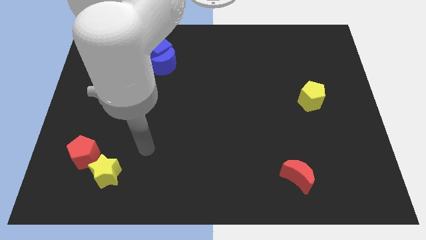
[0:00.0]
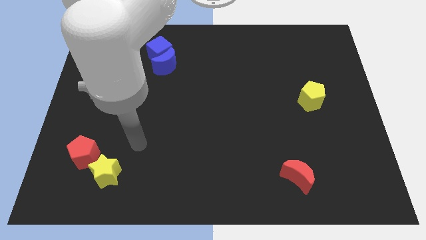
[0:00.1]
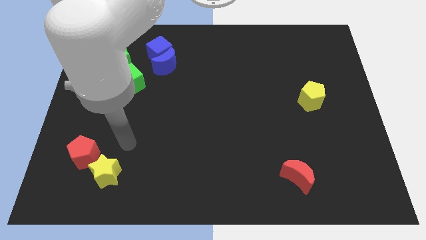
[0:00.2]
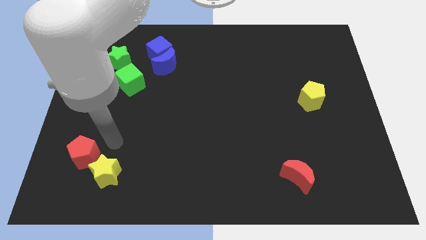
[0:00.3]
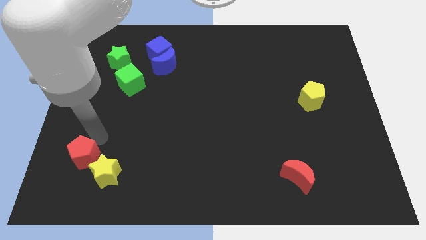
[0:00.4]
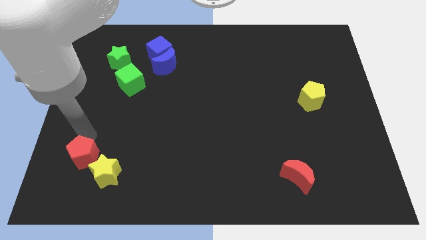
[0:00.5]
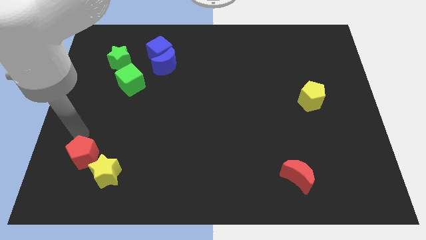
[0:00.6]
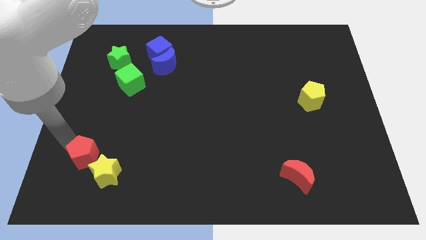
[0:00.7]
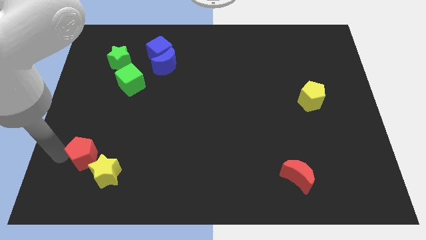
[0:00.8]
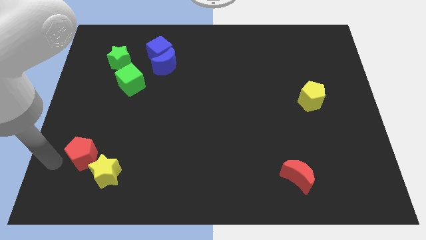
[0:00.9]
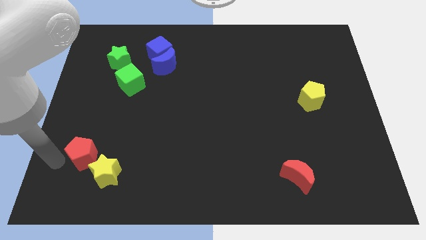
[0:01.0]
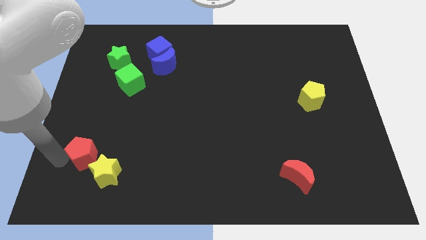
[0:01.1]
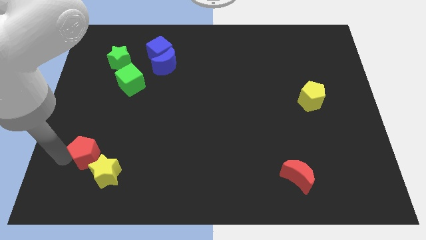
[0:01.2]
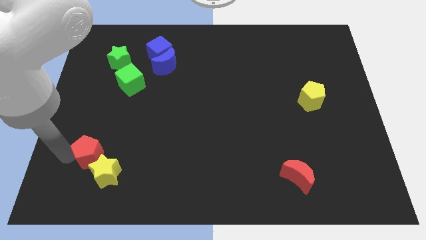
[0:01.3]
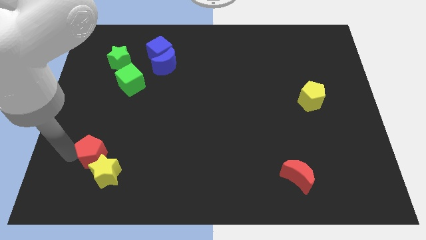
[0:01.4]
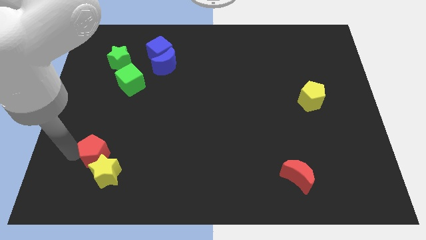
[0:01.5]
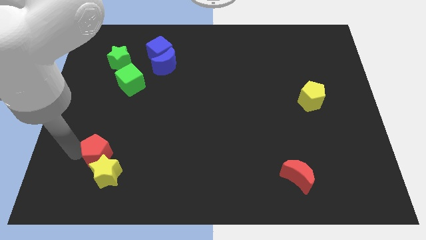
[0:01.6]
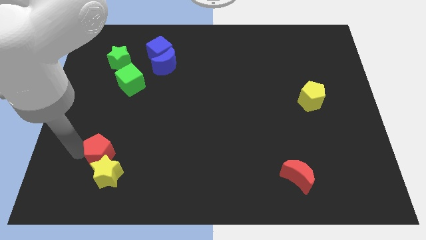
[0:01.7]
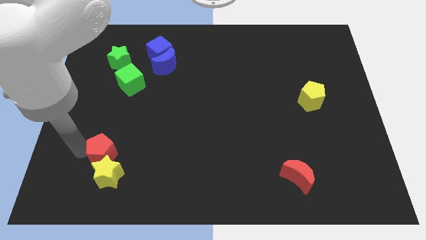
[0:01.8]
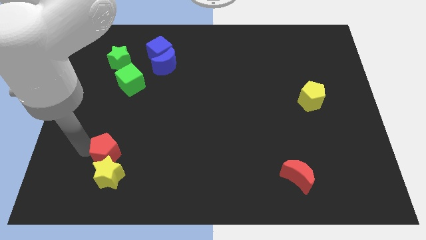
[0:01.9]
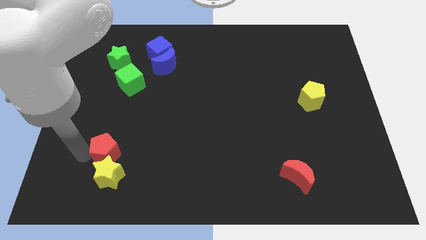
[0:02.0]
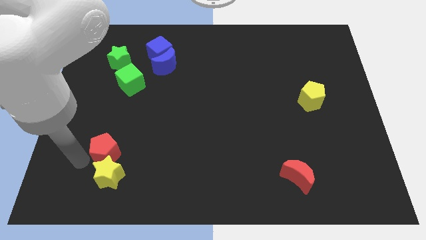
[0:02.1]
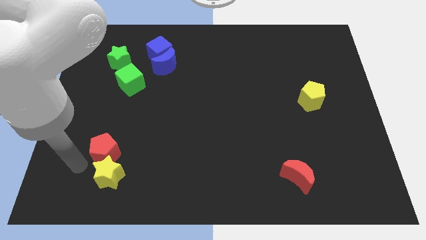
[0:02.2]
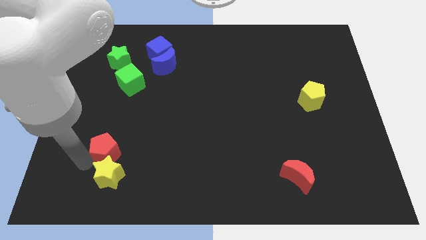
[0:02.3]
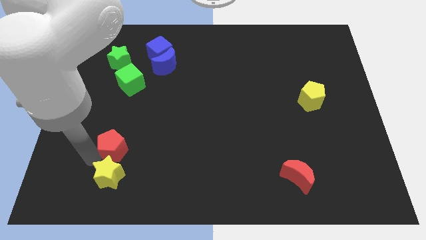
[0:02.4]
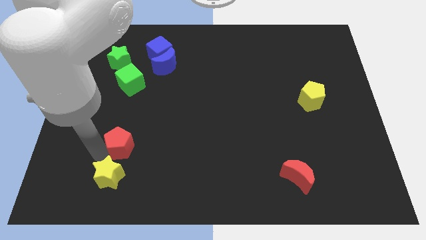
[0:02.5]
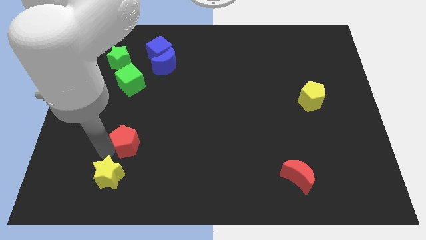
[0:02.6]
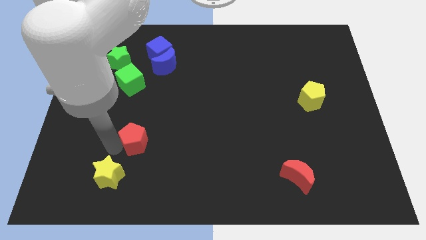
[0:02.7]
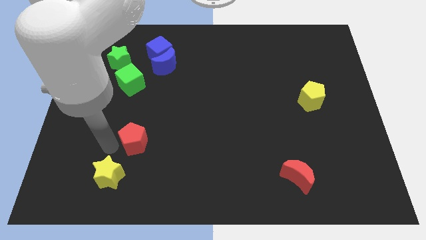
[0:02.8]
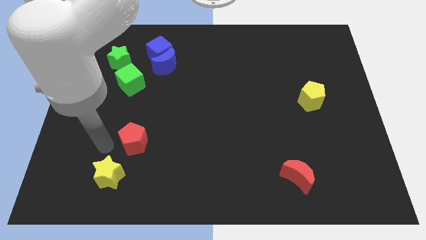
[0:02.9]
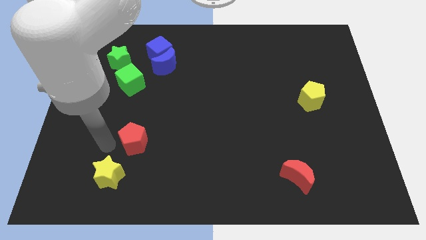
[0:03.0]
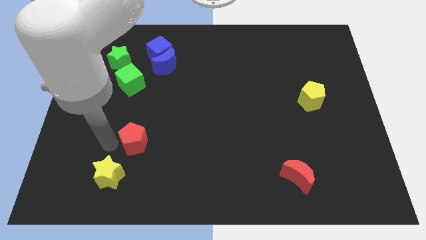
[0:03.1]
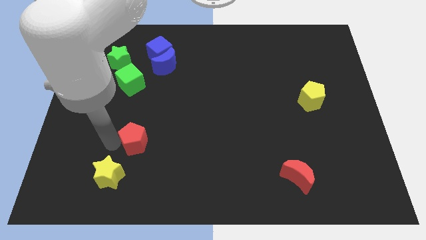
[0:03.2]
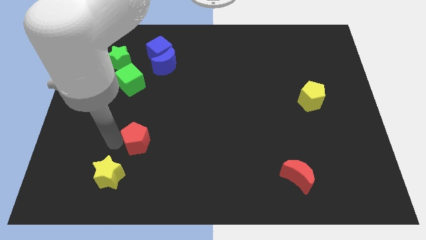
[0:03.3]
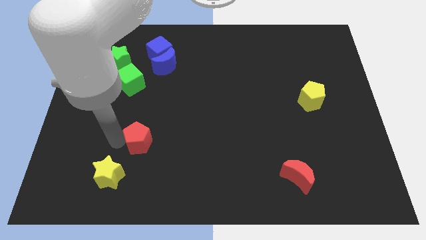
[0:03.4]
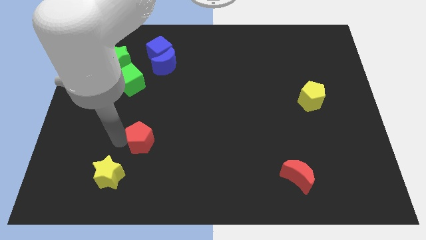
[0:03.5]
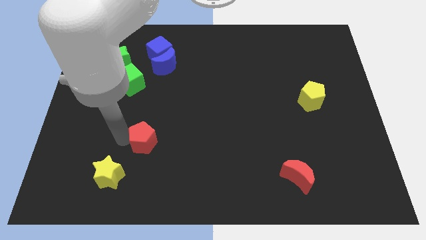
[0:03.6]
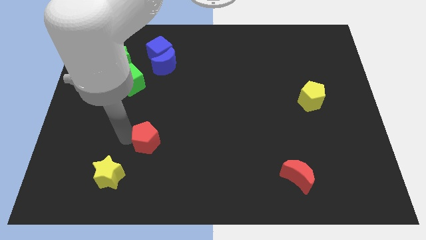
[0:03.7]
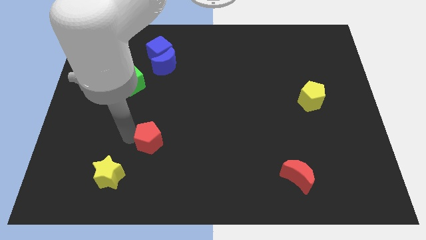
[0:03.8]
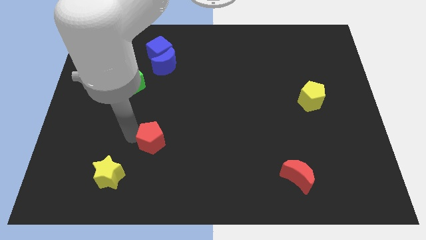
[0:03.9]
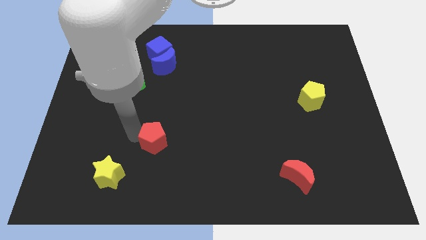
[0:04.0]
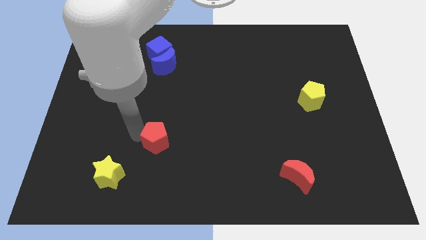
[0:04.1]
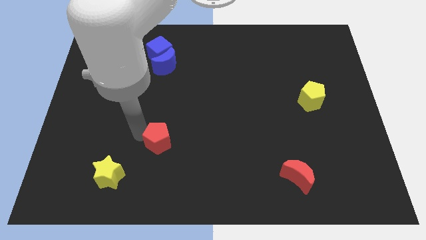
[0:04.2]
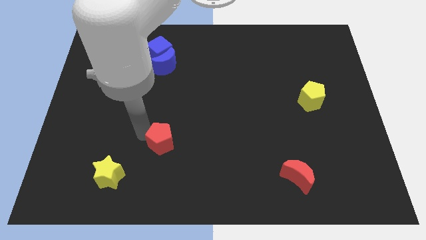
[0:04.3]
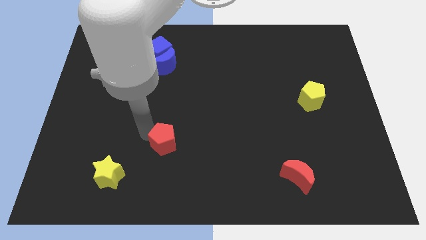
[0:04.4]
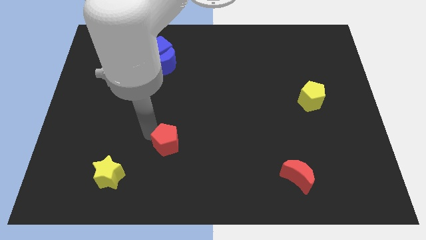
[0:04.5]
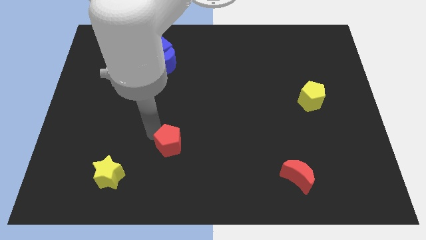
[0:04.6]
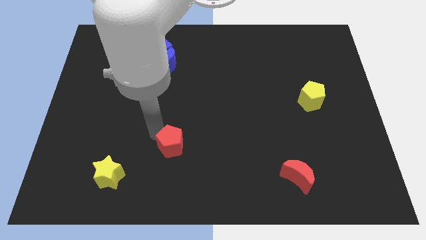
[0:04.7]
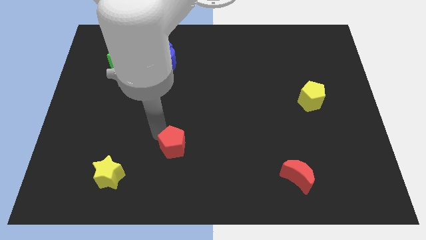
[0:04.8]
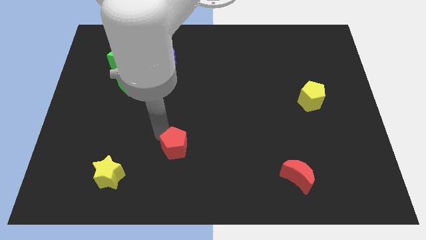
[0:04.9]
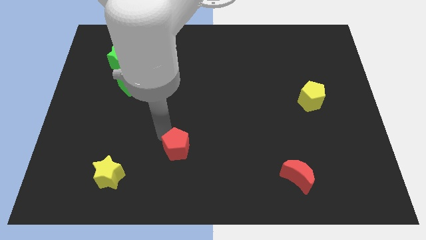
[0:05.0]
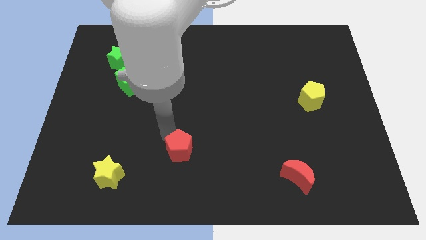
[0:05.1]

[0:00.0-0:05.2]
move the red pentagon to the right

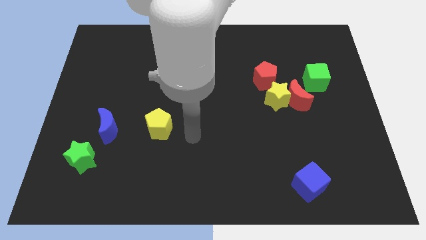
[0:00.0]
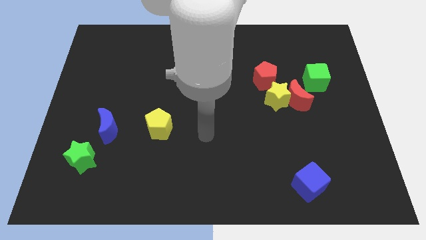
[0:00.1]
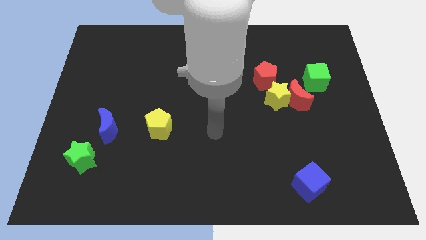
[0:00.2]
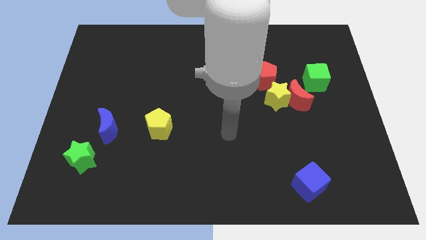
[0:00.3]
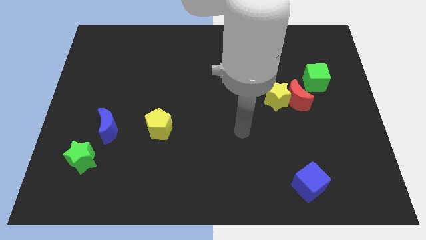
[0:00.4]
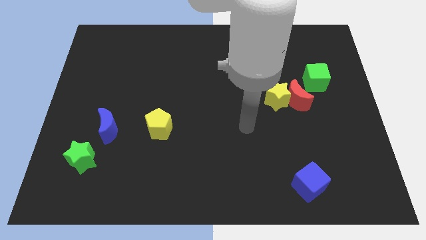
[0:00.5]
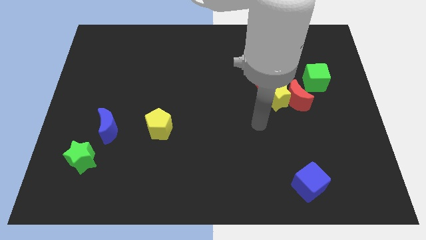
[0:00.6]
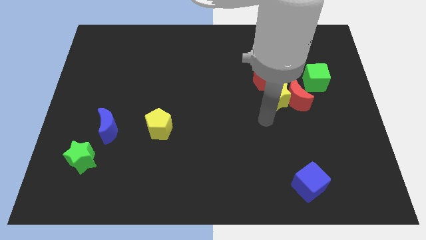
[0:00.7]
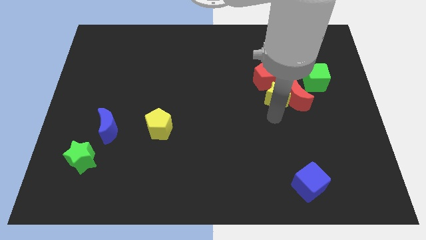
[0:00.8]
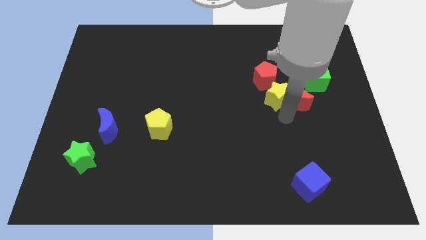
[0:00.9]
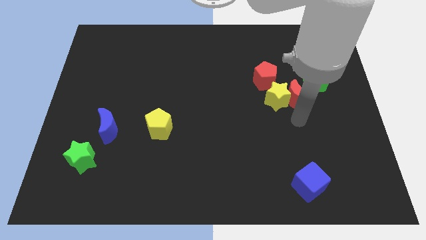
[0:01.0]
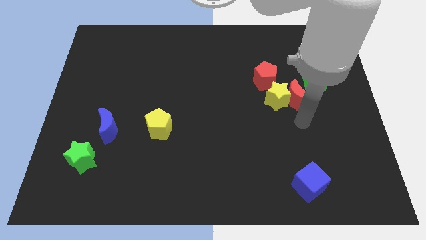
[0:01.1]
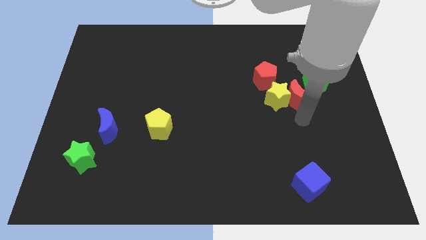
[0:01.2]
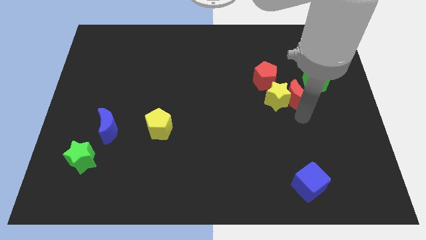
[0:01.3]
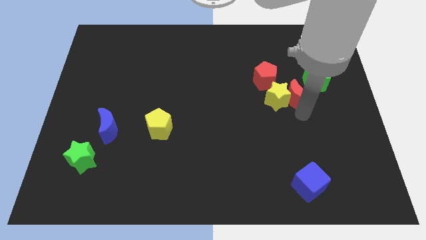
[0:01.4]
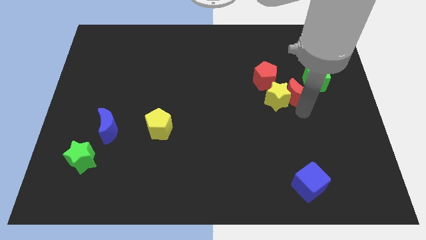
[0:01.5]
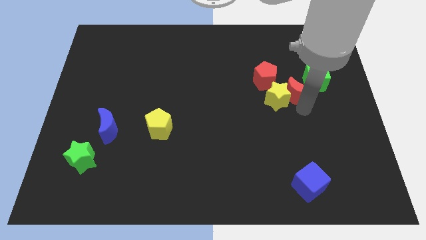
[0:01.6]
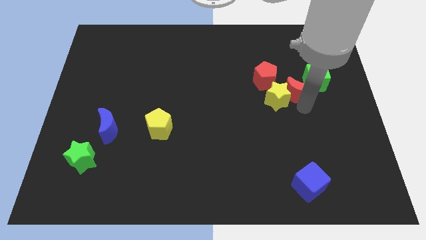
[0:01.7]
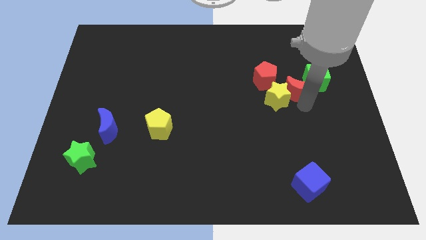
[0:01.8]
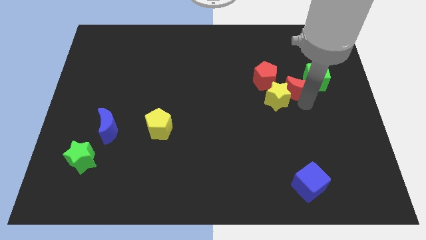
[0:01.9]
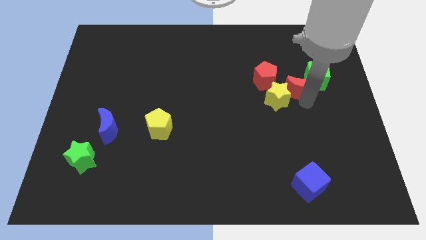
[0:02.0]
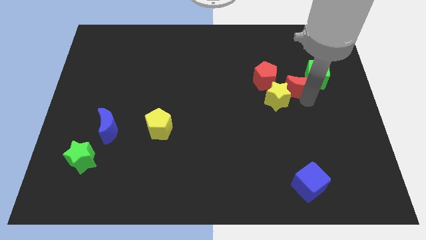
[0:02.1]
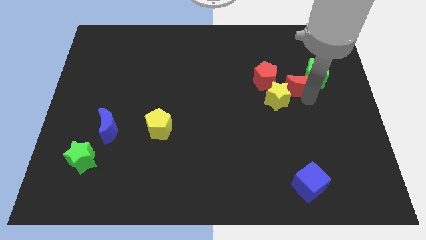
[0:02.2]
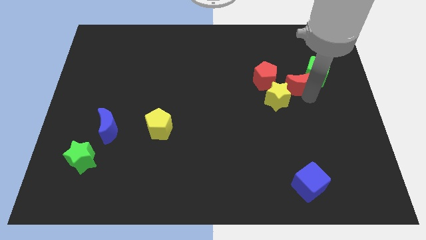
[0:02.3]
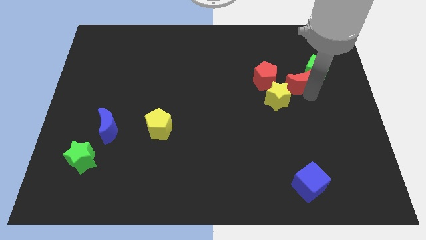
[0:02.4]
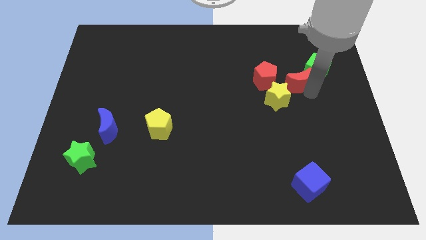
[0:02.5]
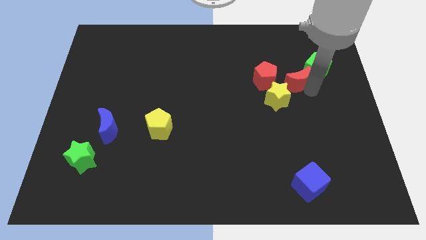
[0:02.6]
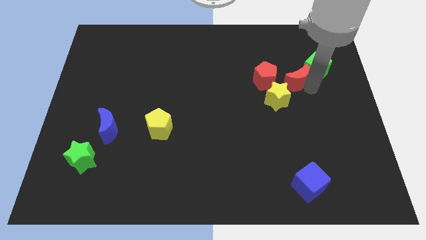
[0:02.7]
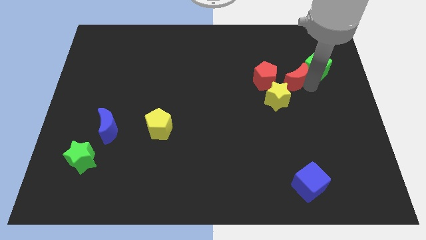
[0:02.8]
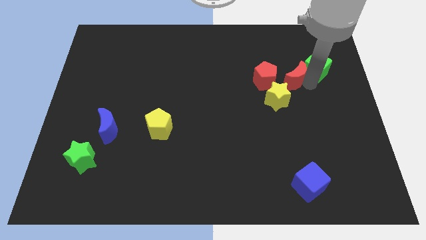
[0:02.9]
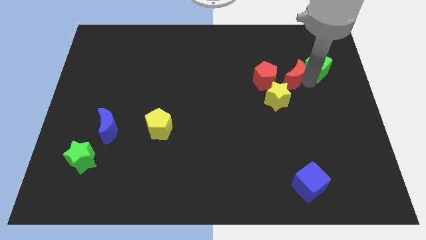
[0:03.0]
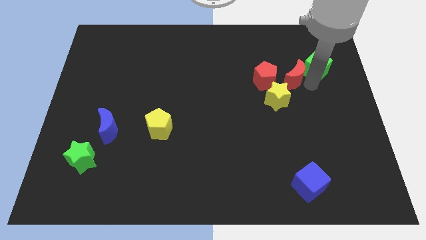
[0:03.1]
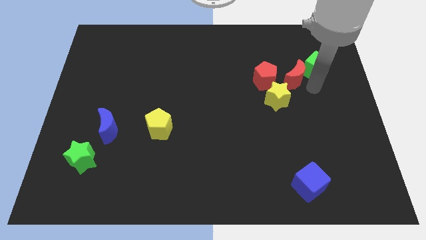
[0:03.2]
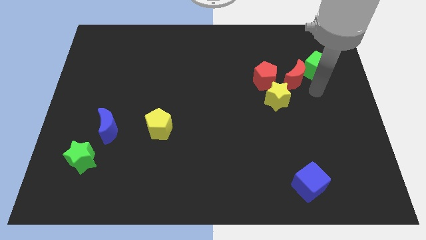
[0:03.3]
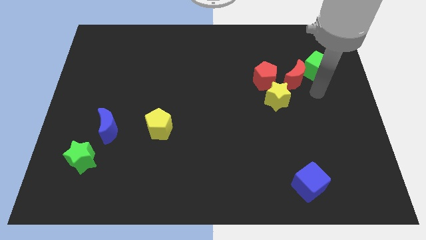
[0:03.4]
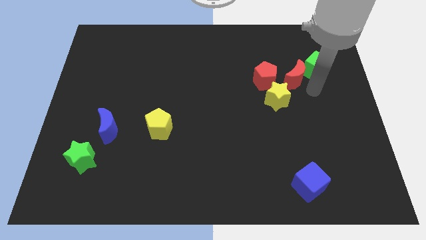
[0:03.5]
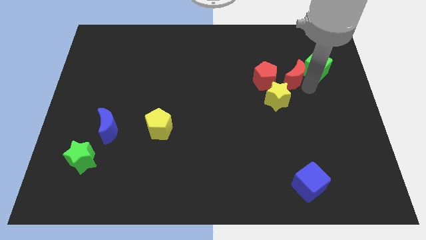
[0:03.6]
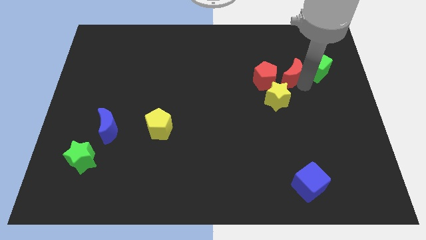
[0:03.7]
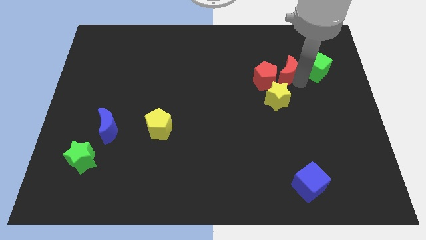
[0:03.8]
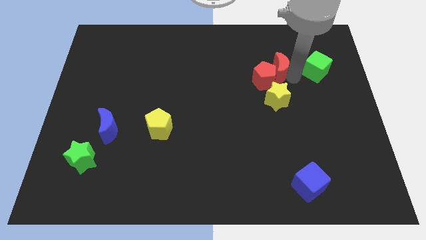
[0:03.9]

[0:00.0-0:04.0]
slightly move the red moon upwards and to the left diagonally
